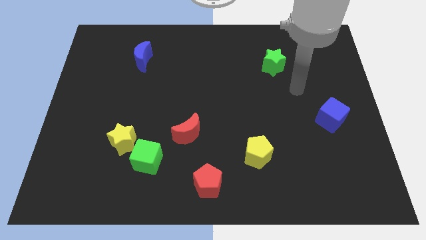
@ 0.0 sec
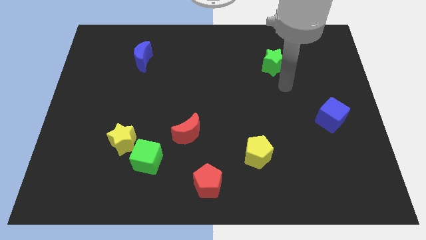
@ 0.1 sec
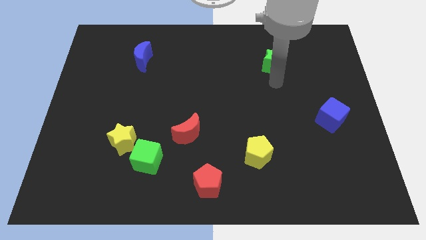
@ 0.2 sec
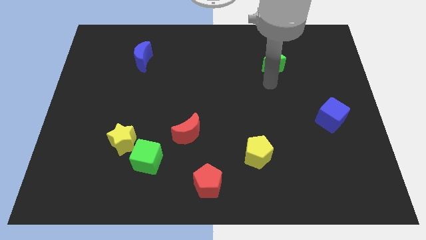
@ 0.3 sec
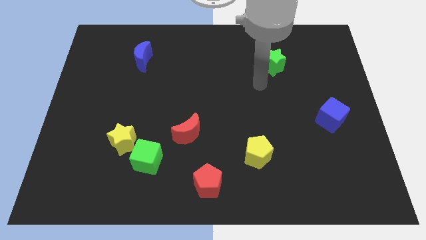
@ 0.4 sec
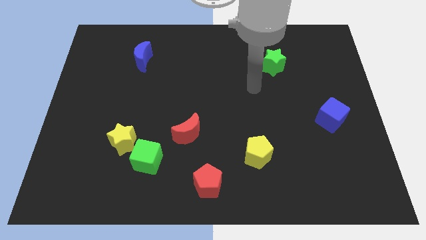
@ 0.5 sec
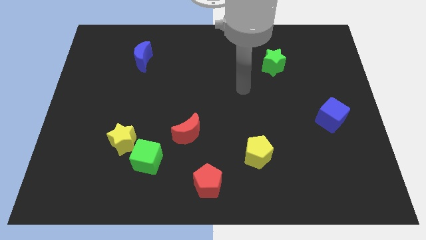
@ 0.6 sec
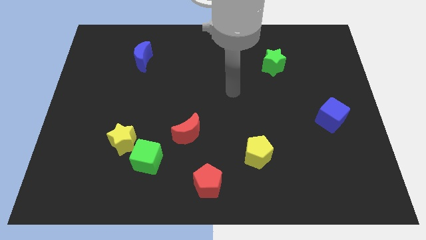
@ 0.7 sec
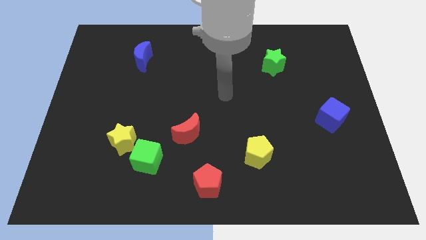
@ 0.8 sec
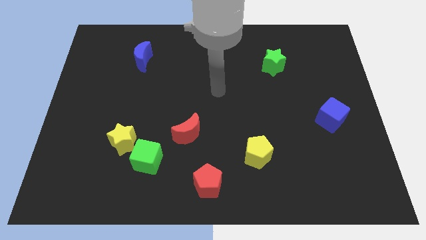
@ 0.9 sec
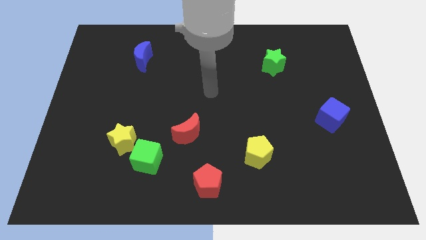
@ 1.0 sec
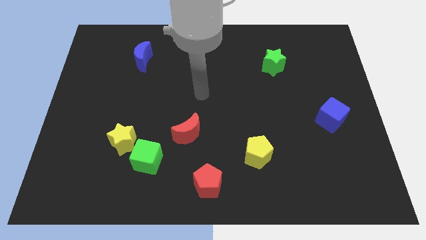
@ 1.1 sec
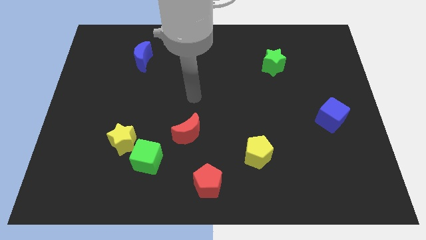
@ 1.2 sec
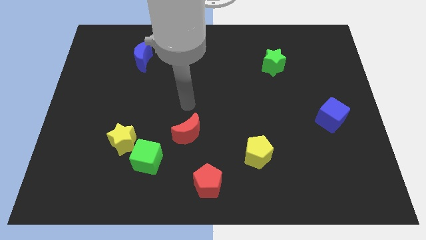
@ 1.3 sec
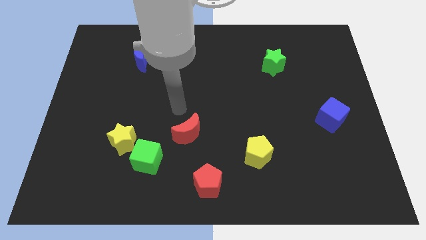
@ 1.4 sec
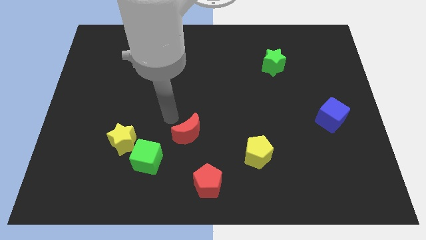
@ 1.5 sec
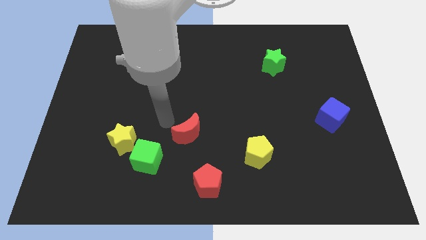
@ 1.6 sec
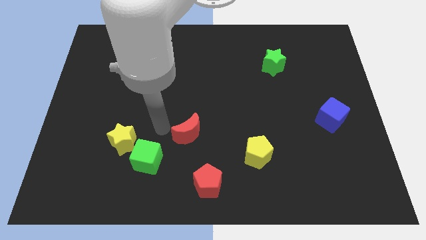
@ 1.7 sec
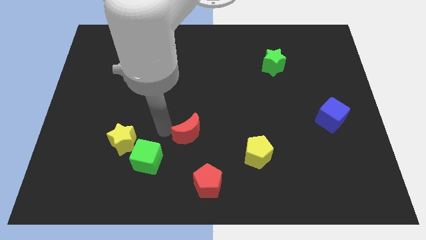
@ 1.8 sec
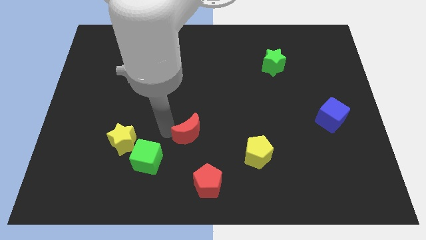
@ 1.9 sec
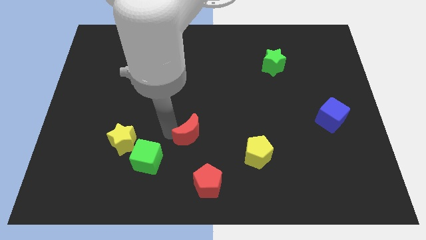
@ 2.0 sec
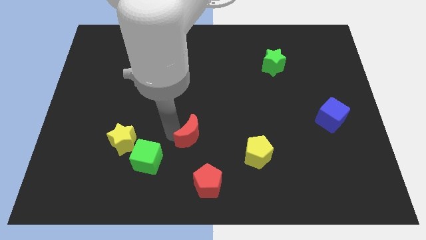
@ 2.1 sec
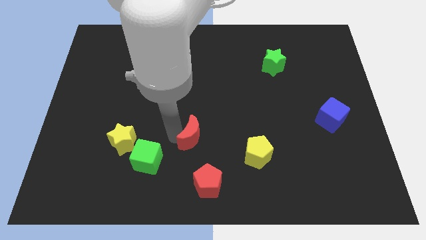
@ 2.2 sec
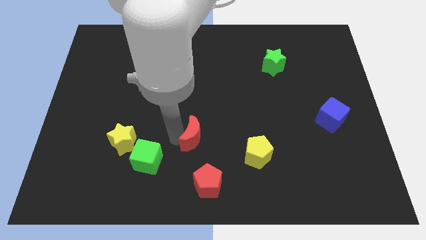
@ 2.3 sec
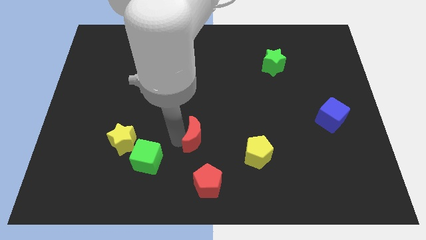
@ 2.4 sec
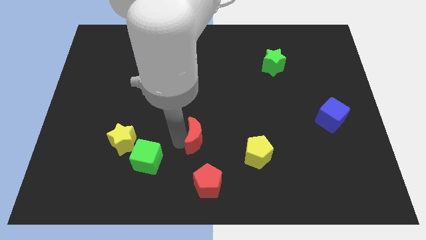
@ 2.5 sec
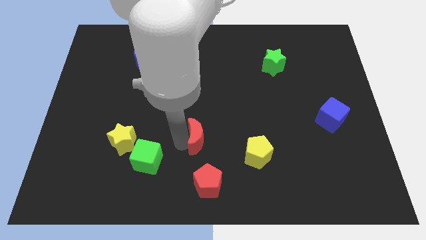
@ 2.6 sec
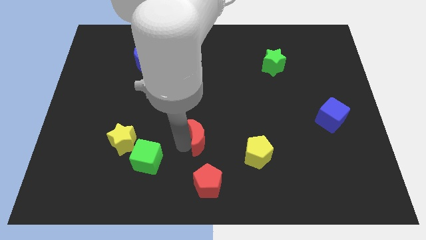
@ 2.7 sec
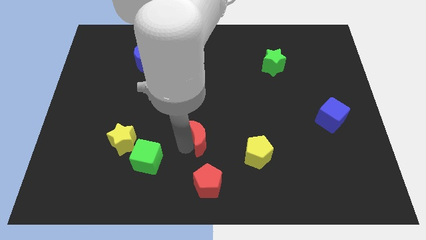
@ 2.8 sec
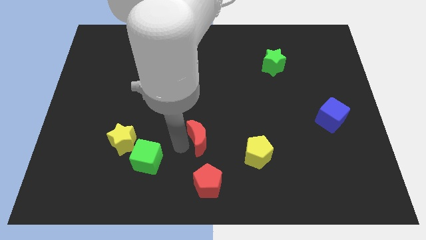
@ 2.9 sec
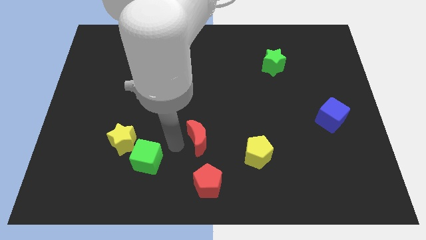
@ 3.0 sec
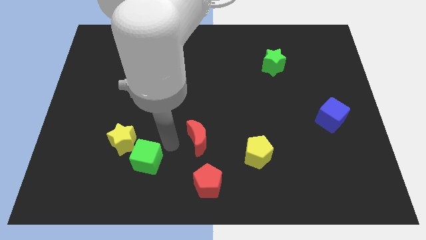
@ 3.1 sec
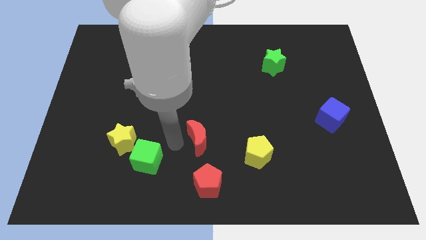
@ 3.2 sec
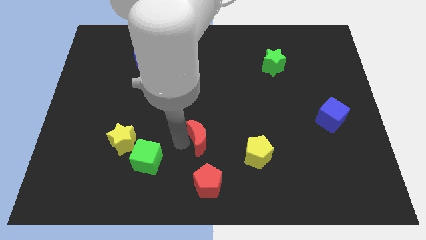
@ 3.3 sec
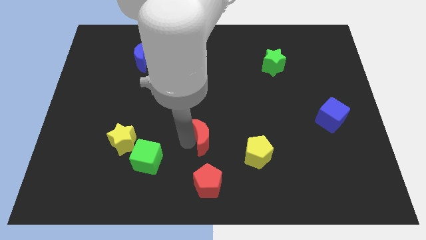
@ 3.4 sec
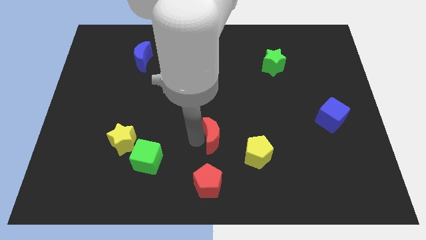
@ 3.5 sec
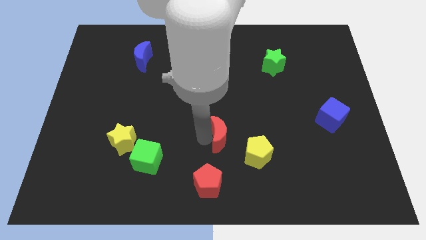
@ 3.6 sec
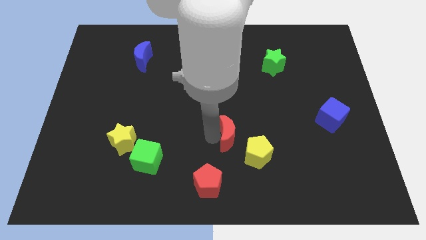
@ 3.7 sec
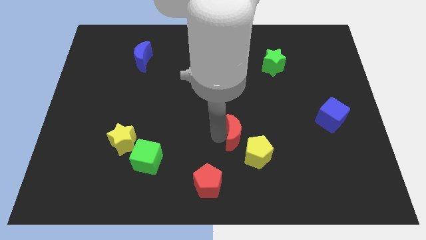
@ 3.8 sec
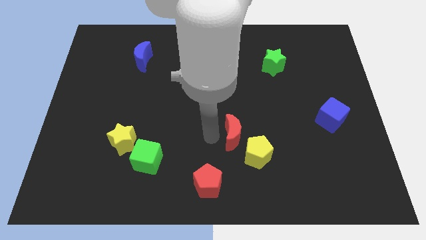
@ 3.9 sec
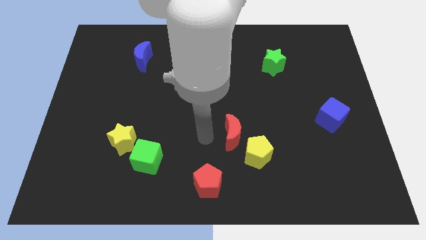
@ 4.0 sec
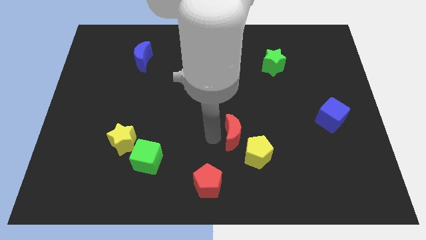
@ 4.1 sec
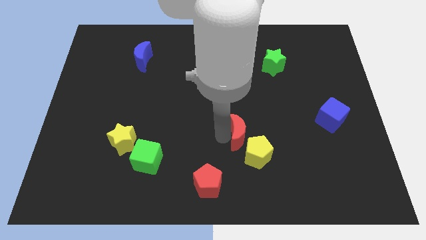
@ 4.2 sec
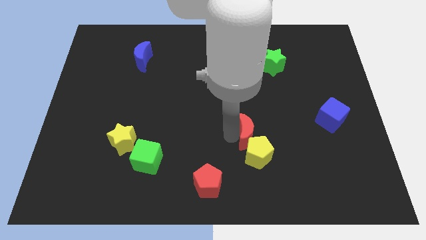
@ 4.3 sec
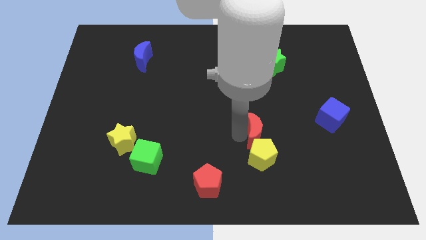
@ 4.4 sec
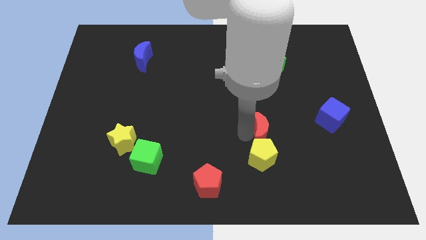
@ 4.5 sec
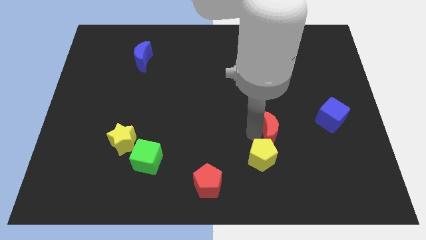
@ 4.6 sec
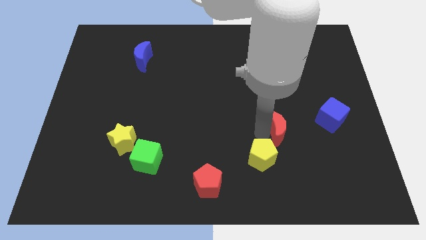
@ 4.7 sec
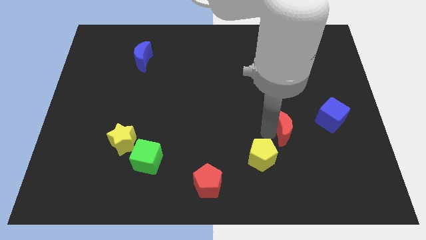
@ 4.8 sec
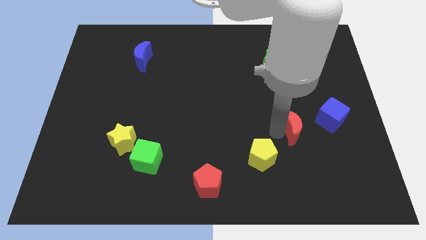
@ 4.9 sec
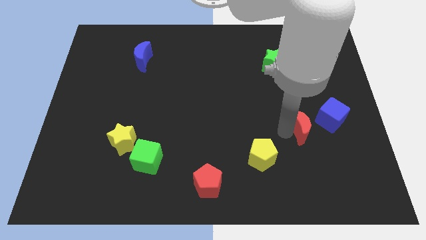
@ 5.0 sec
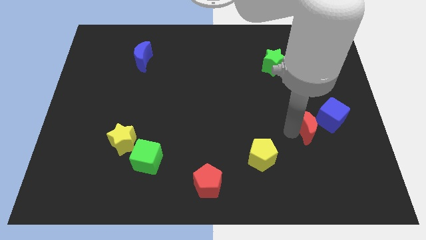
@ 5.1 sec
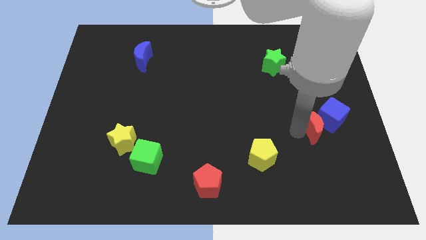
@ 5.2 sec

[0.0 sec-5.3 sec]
put the red moon close to the blue cube

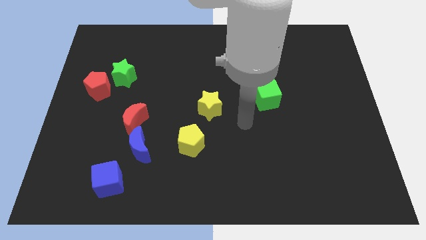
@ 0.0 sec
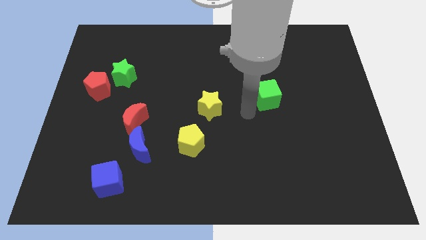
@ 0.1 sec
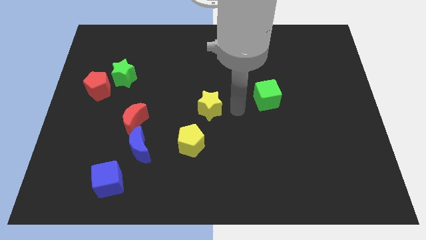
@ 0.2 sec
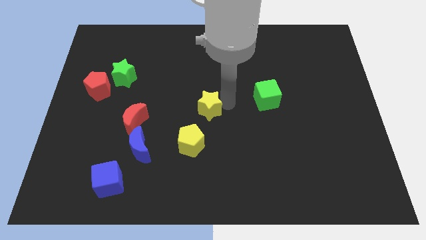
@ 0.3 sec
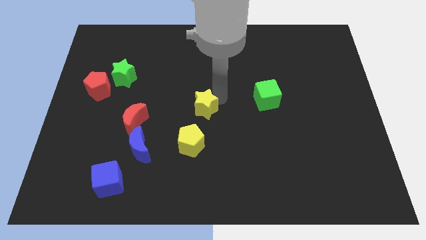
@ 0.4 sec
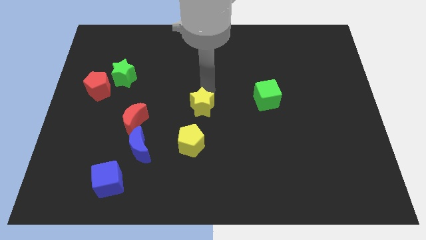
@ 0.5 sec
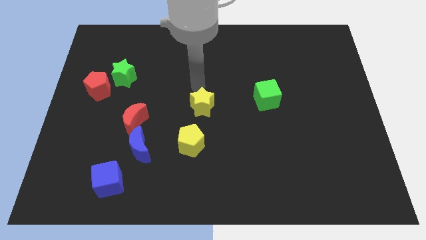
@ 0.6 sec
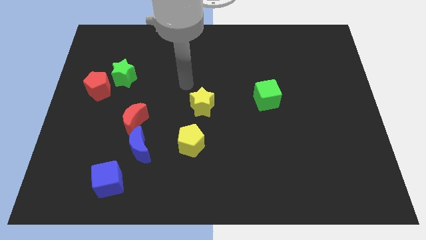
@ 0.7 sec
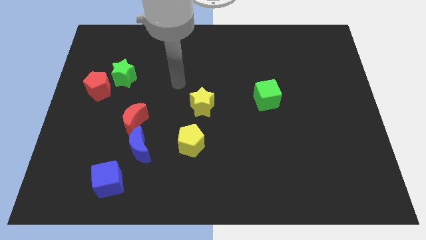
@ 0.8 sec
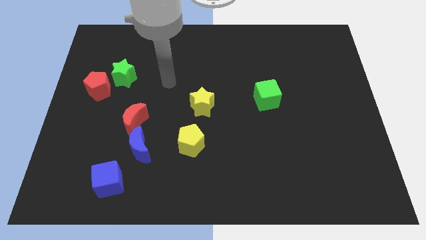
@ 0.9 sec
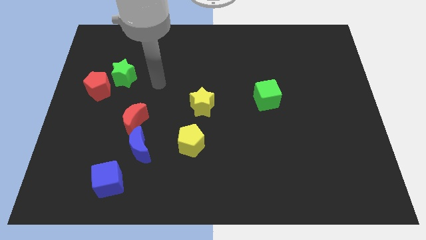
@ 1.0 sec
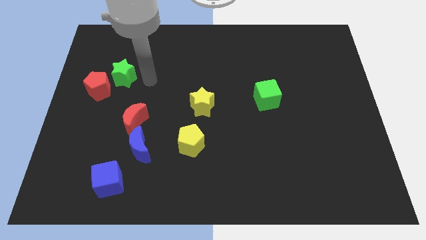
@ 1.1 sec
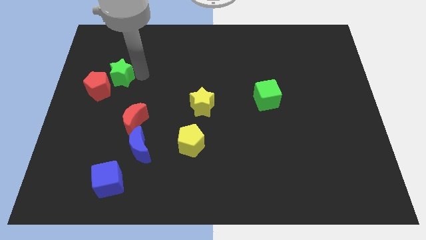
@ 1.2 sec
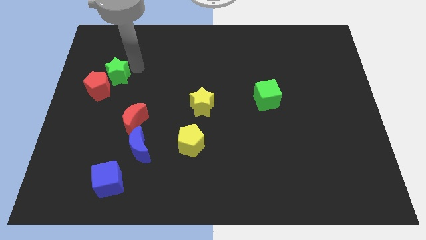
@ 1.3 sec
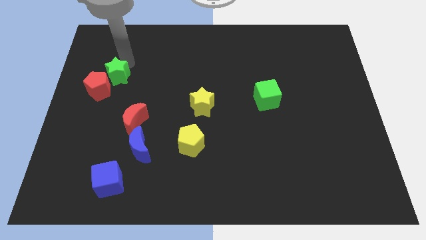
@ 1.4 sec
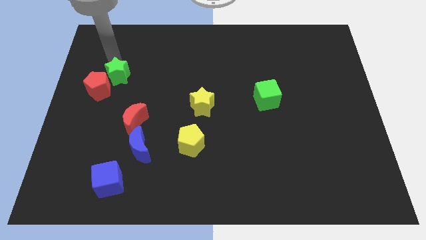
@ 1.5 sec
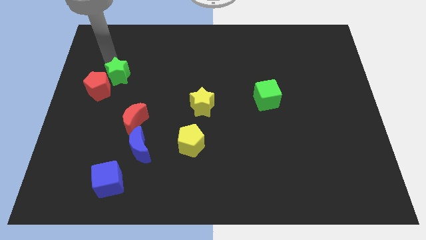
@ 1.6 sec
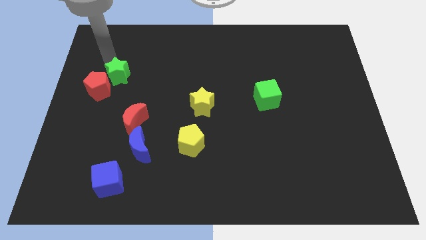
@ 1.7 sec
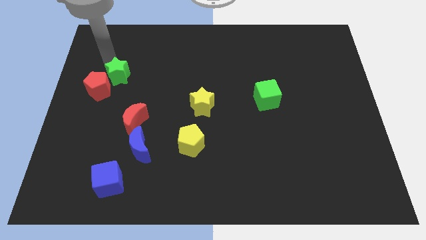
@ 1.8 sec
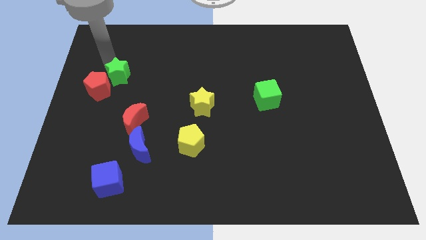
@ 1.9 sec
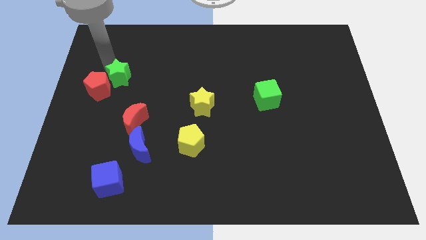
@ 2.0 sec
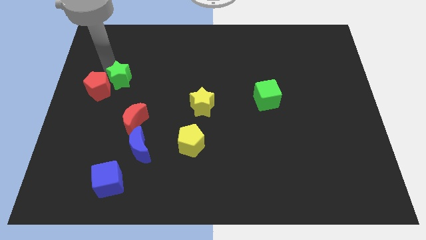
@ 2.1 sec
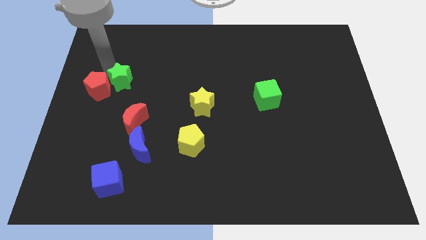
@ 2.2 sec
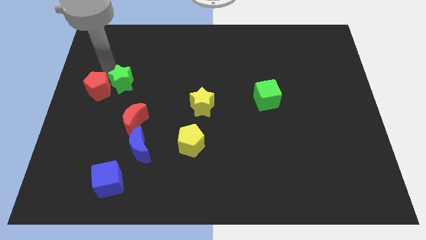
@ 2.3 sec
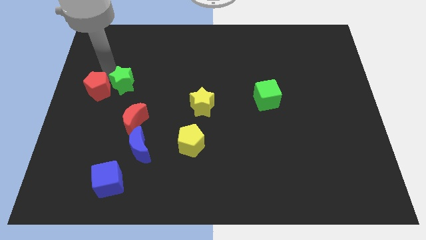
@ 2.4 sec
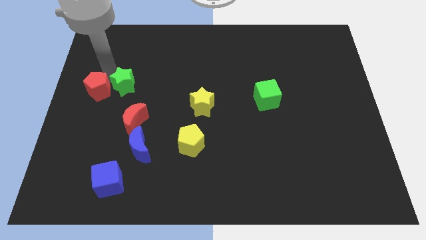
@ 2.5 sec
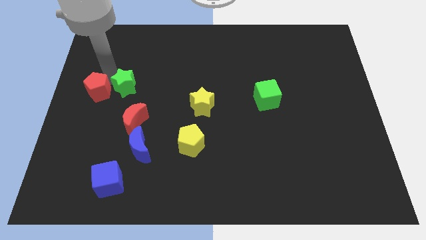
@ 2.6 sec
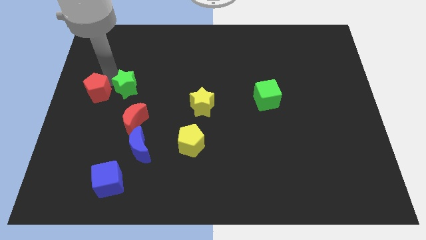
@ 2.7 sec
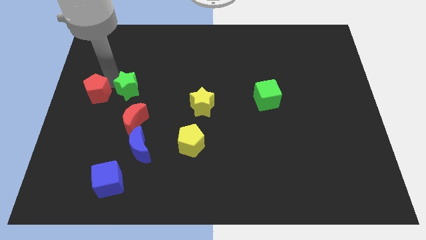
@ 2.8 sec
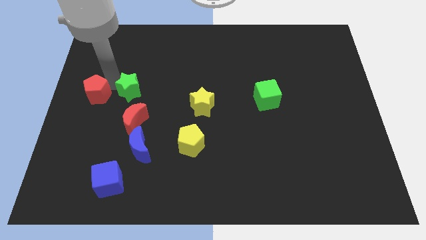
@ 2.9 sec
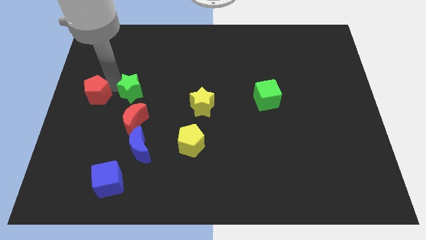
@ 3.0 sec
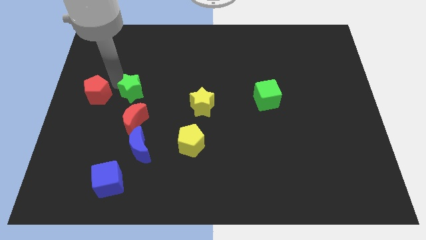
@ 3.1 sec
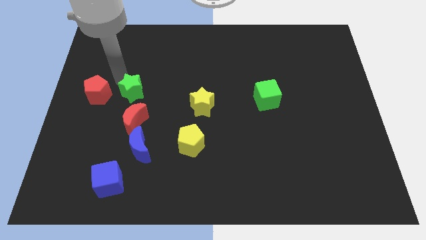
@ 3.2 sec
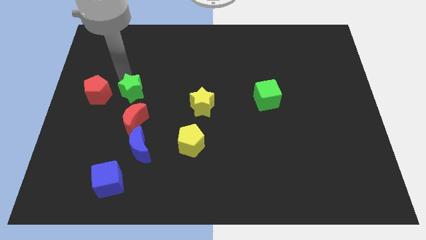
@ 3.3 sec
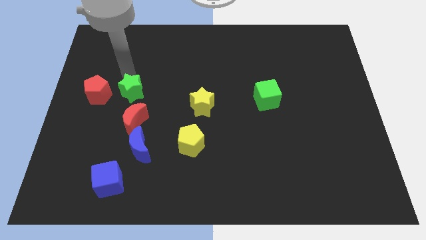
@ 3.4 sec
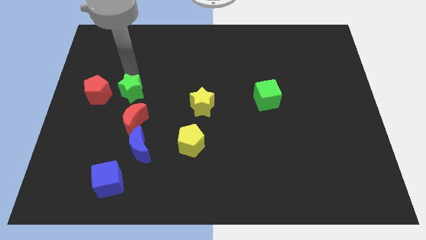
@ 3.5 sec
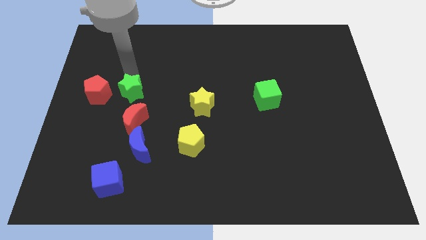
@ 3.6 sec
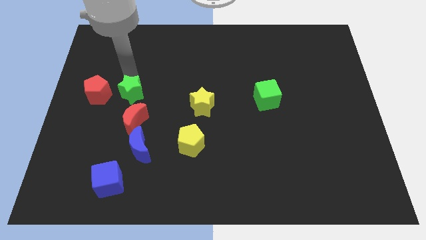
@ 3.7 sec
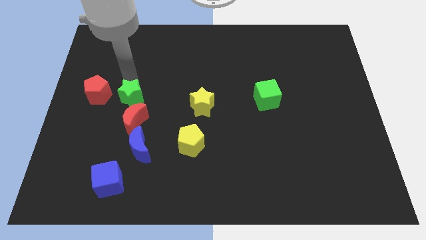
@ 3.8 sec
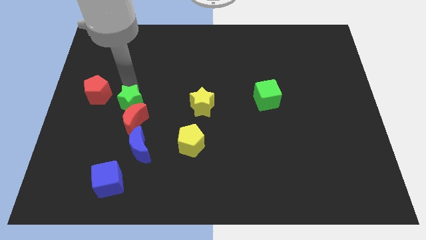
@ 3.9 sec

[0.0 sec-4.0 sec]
slide the green star close to the red moon
